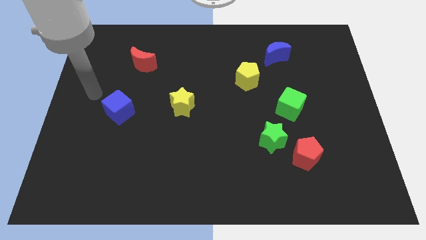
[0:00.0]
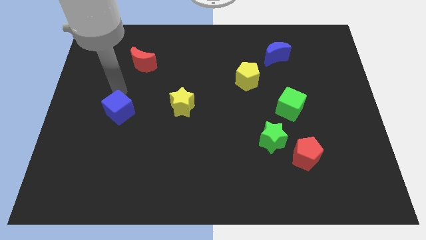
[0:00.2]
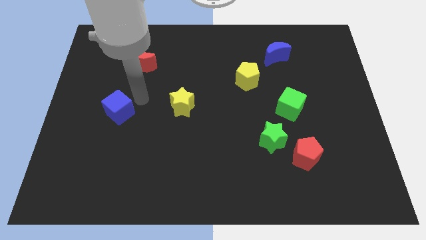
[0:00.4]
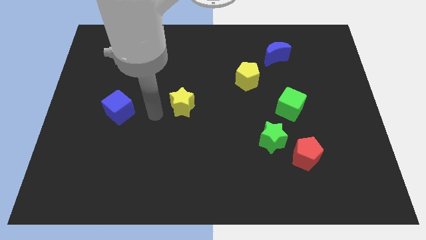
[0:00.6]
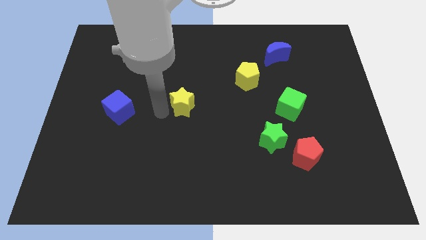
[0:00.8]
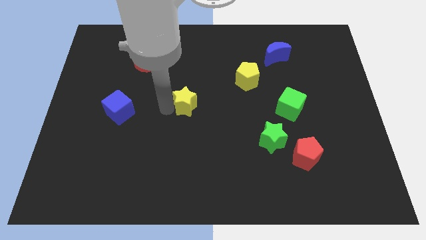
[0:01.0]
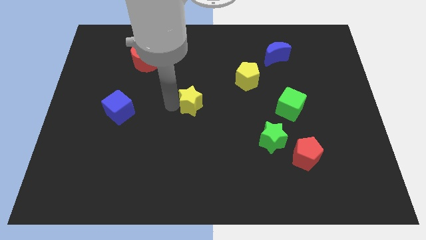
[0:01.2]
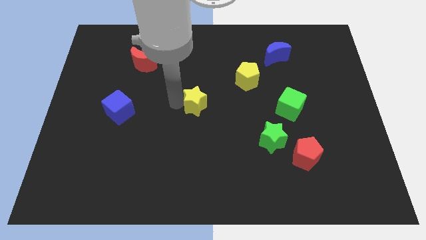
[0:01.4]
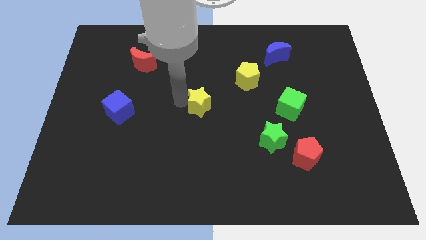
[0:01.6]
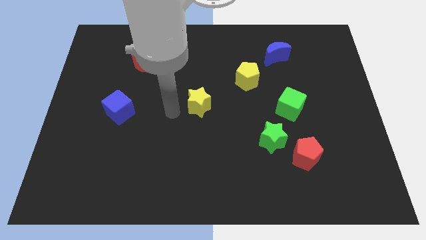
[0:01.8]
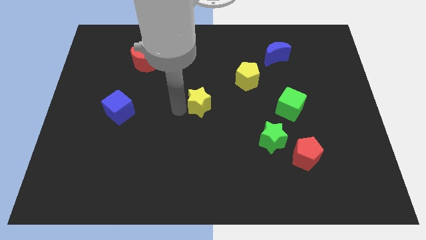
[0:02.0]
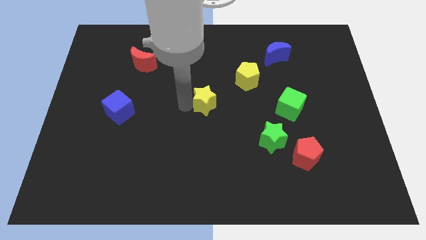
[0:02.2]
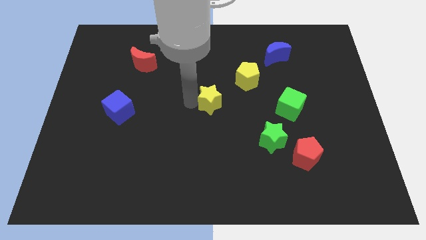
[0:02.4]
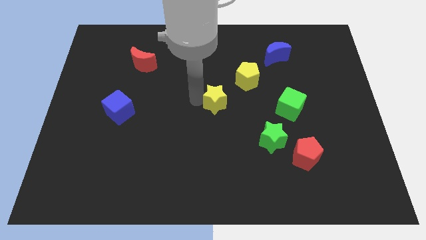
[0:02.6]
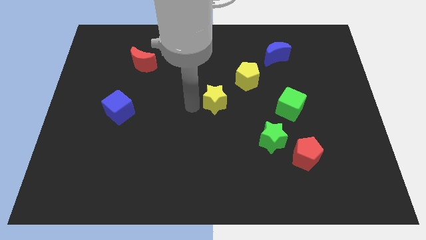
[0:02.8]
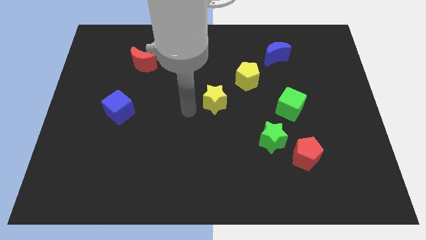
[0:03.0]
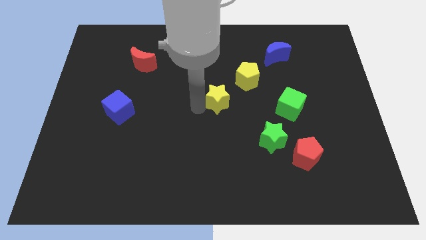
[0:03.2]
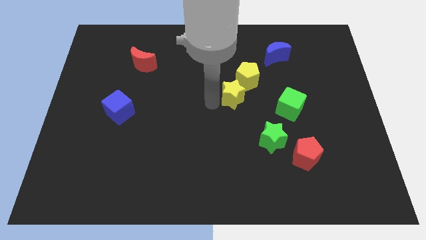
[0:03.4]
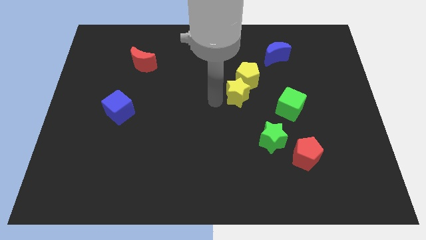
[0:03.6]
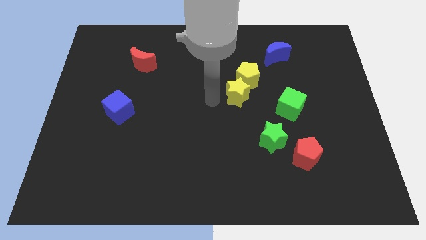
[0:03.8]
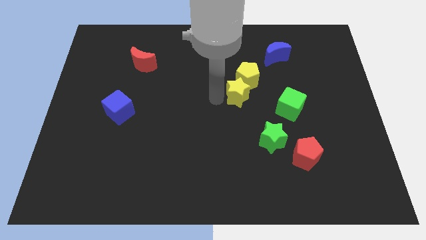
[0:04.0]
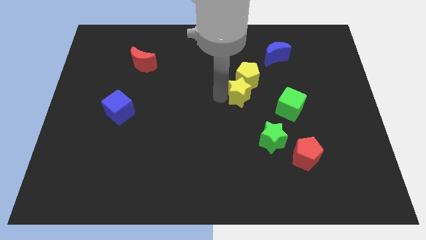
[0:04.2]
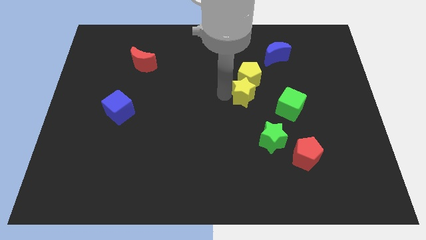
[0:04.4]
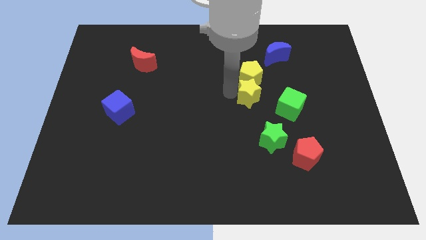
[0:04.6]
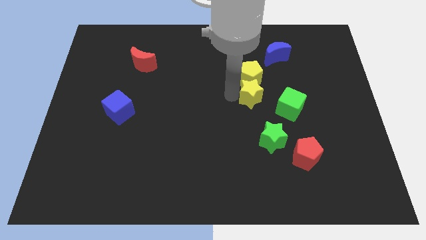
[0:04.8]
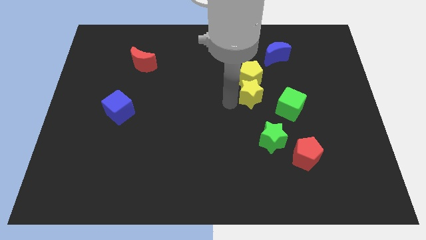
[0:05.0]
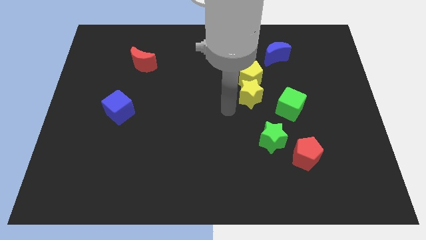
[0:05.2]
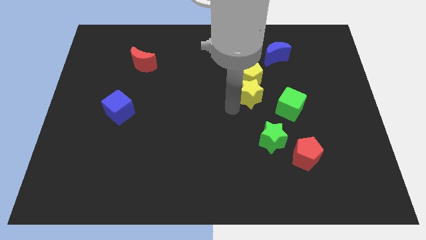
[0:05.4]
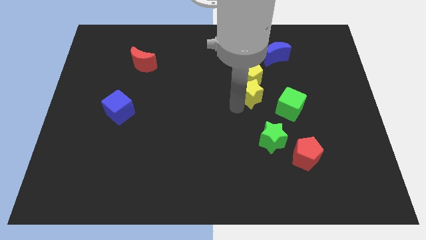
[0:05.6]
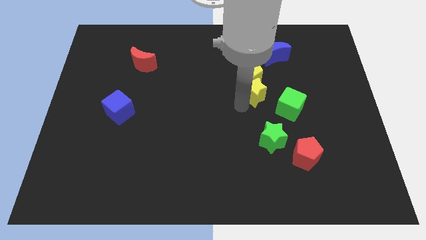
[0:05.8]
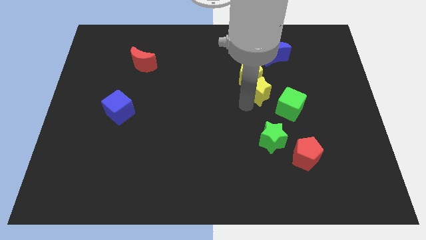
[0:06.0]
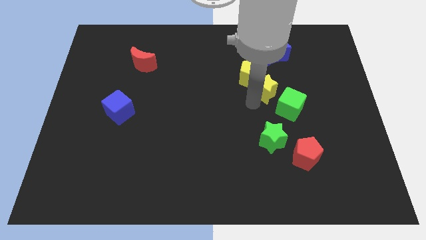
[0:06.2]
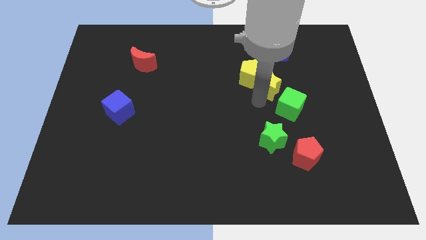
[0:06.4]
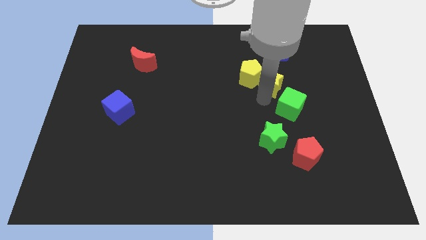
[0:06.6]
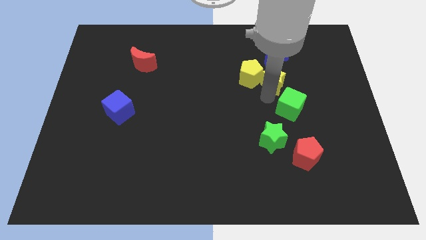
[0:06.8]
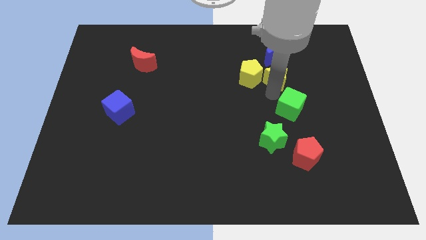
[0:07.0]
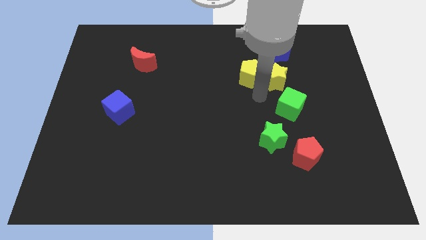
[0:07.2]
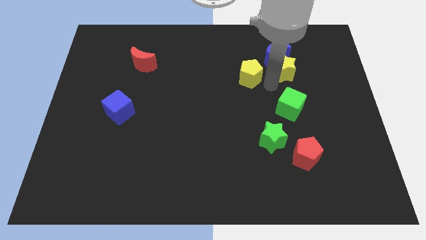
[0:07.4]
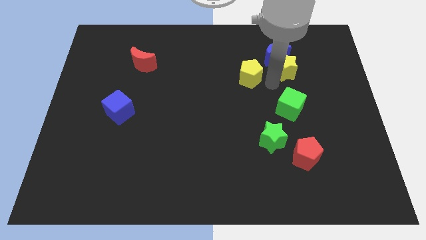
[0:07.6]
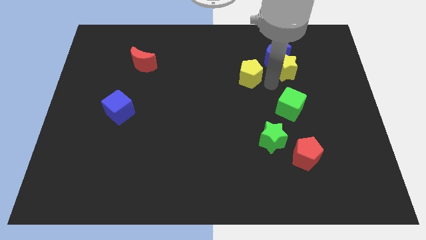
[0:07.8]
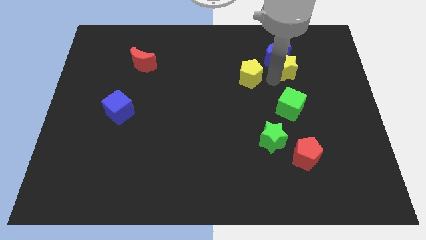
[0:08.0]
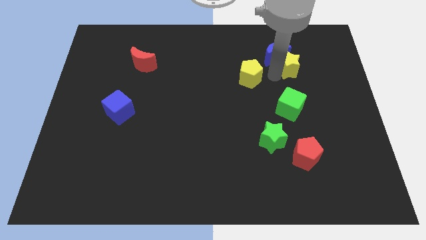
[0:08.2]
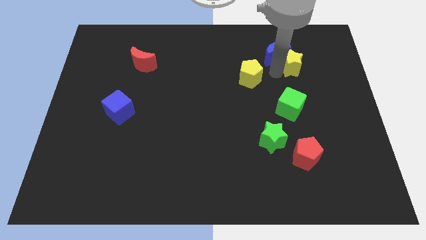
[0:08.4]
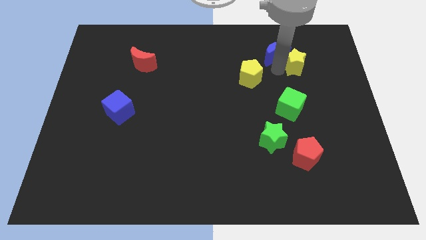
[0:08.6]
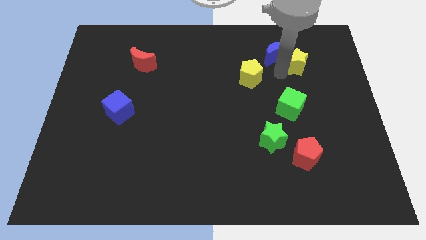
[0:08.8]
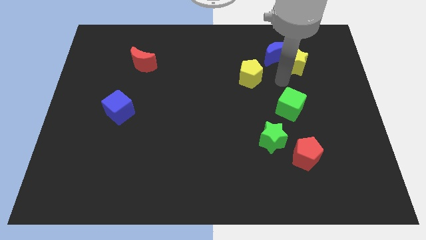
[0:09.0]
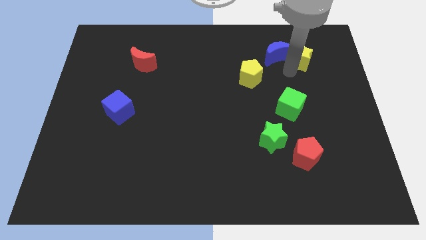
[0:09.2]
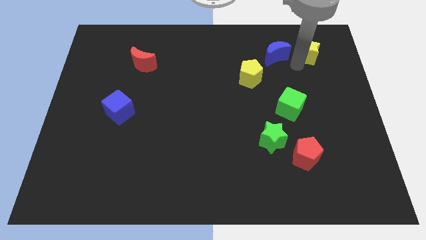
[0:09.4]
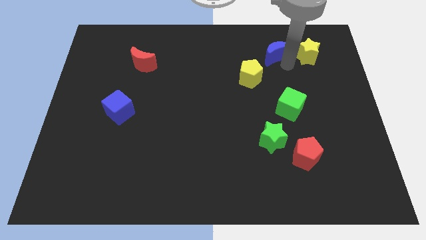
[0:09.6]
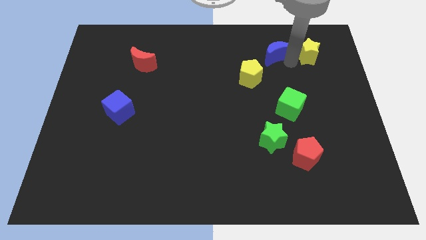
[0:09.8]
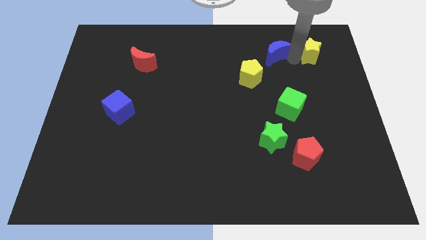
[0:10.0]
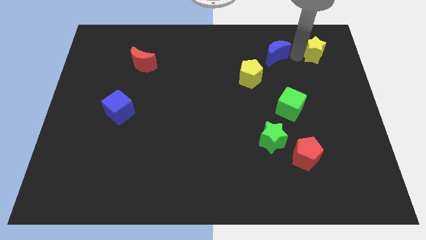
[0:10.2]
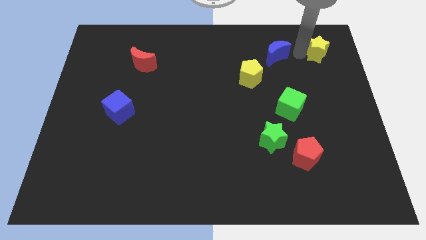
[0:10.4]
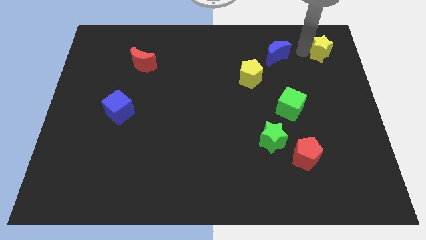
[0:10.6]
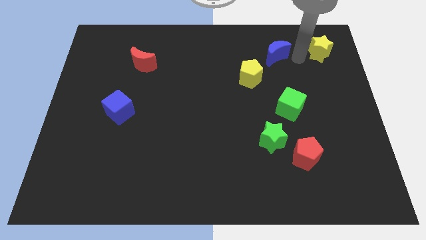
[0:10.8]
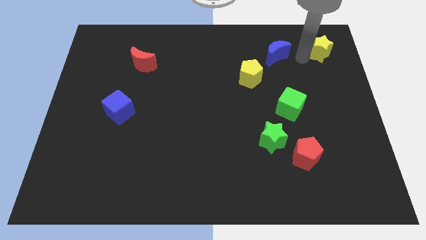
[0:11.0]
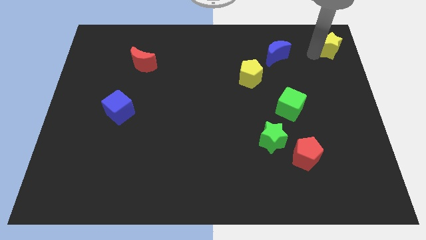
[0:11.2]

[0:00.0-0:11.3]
put the yellow star to the top right

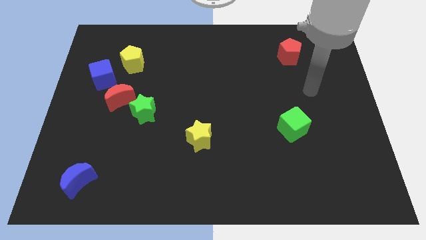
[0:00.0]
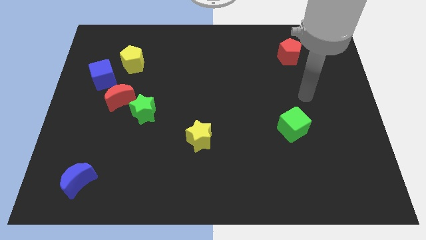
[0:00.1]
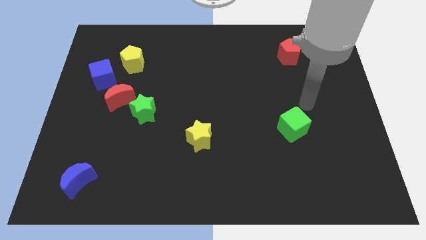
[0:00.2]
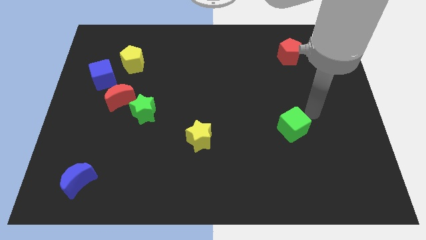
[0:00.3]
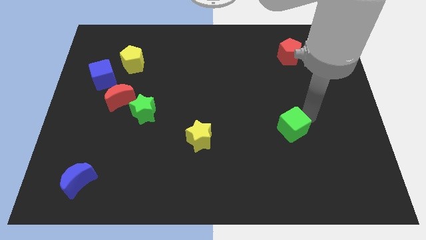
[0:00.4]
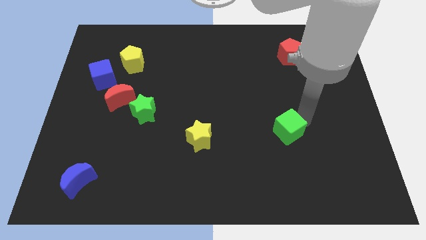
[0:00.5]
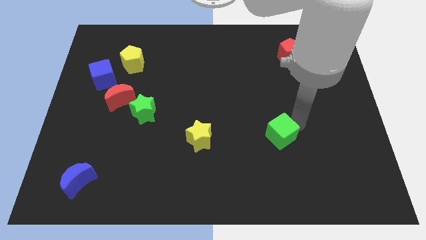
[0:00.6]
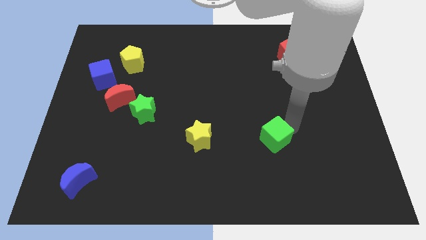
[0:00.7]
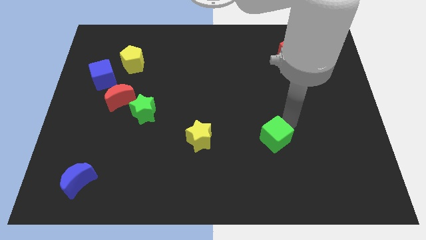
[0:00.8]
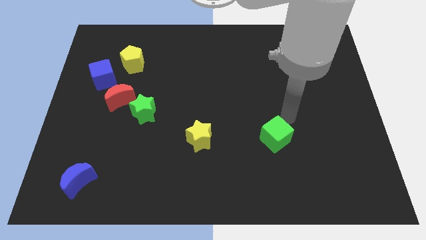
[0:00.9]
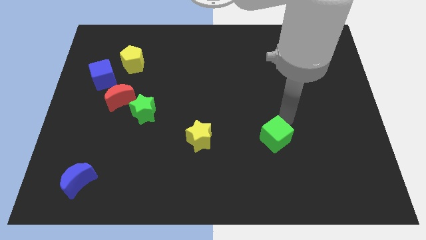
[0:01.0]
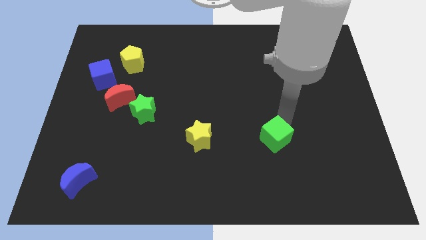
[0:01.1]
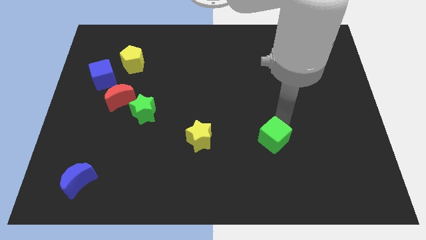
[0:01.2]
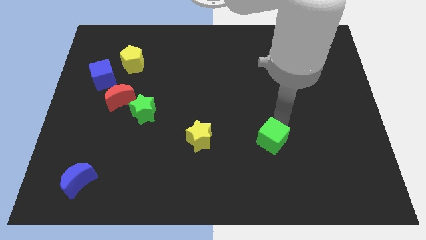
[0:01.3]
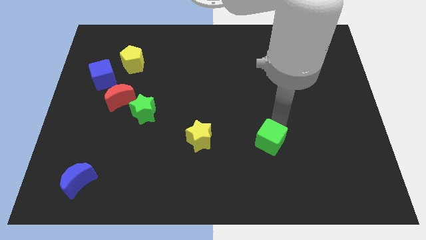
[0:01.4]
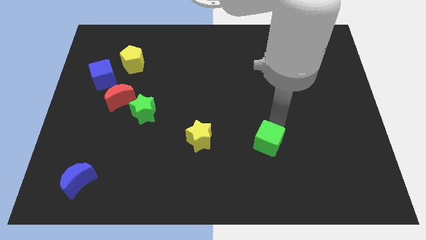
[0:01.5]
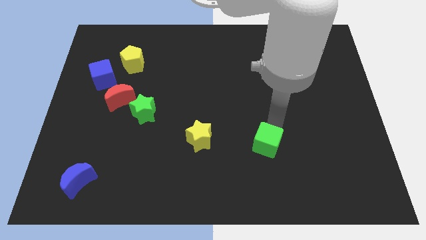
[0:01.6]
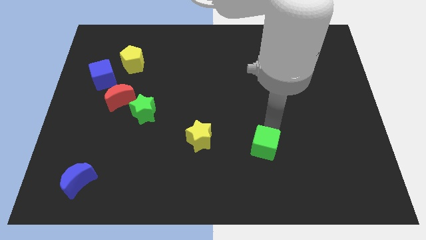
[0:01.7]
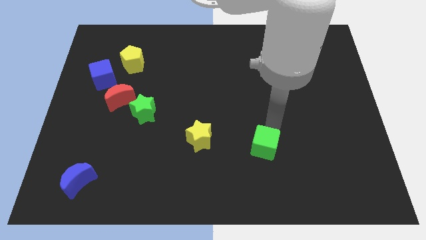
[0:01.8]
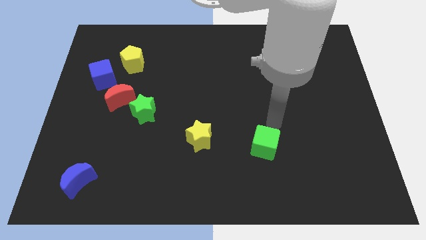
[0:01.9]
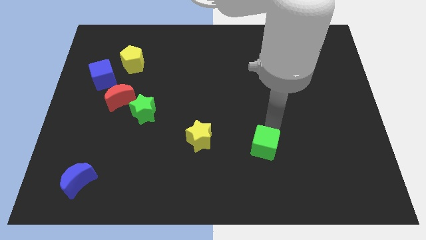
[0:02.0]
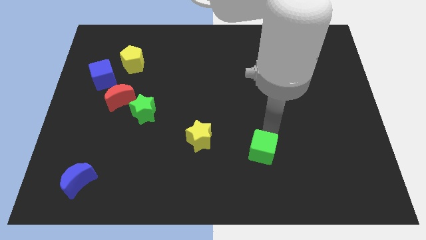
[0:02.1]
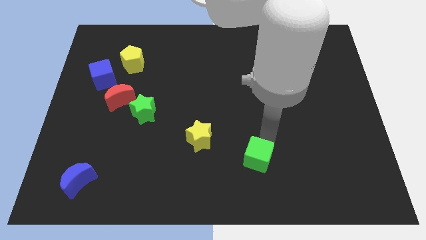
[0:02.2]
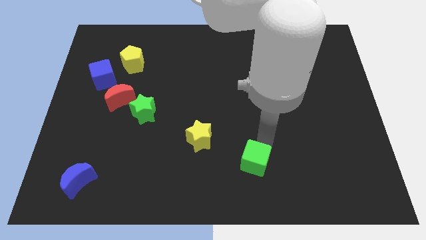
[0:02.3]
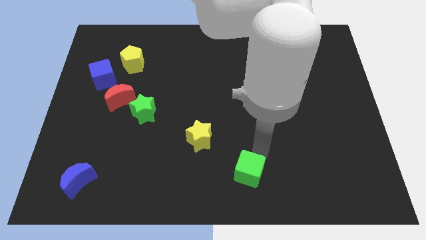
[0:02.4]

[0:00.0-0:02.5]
slide the green cube to the bottom side
